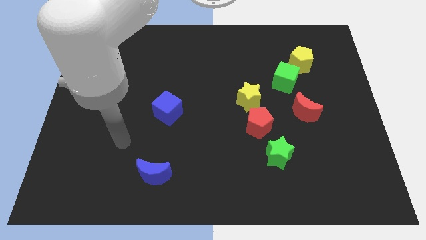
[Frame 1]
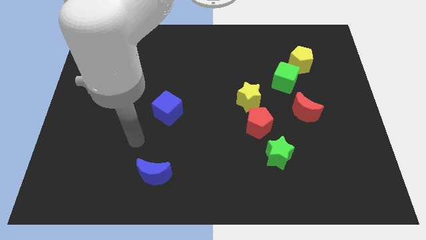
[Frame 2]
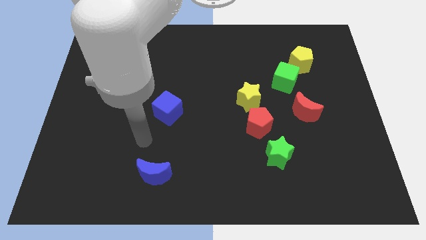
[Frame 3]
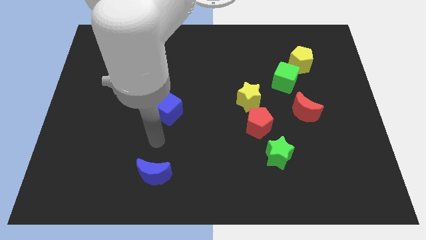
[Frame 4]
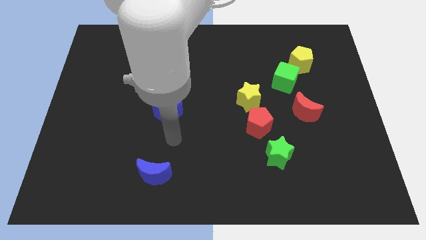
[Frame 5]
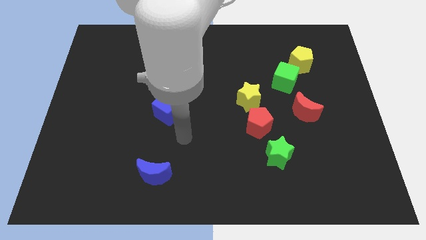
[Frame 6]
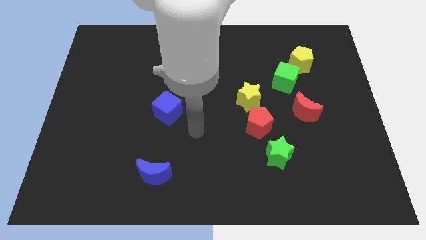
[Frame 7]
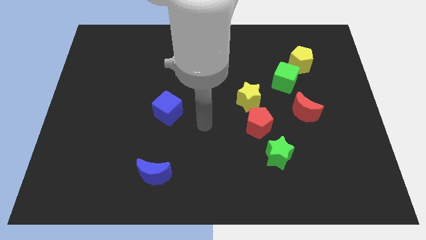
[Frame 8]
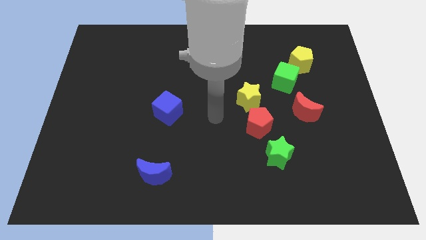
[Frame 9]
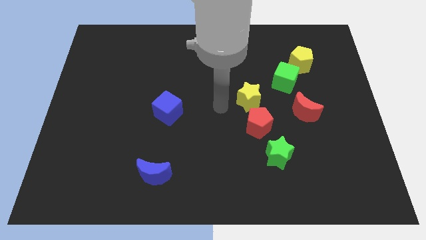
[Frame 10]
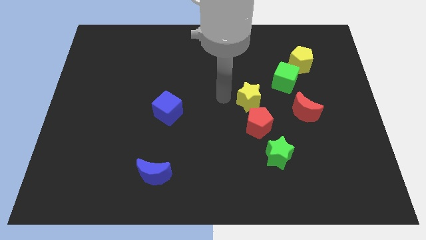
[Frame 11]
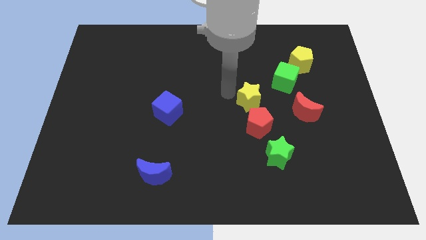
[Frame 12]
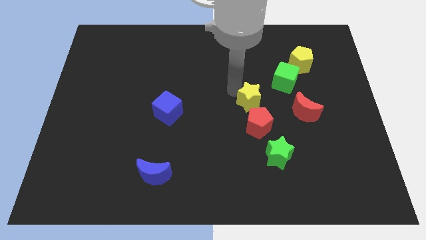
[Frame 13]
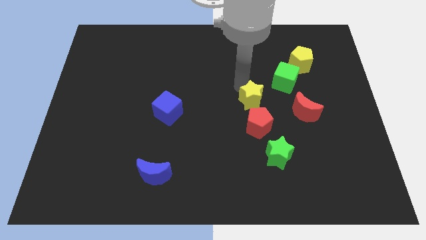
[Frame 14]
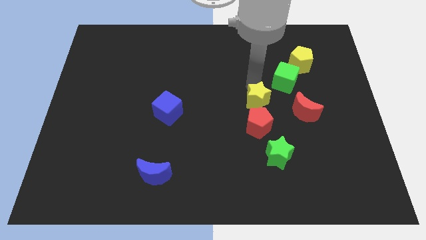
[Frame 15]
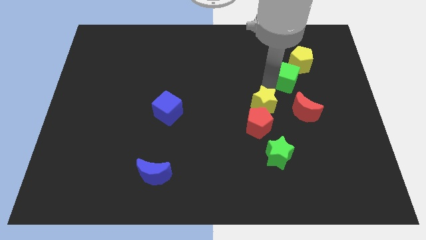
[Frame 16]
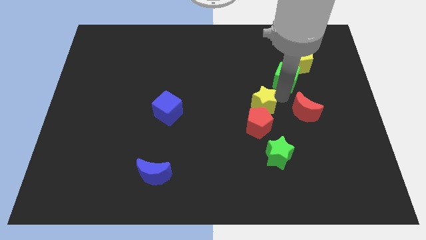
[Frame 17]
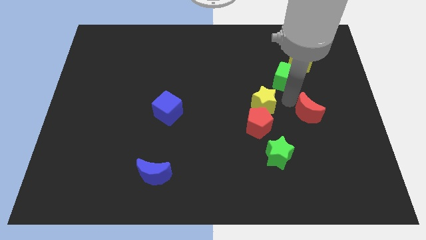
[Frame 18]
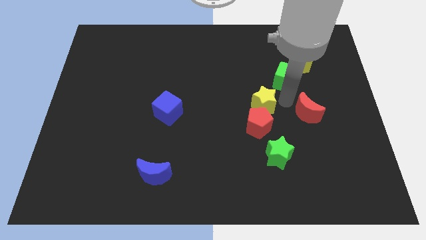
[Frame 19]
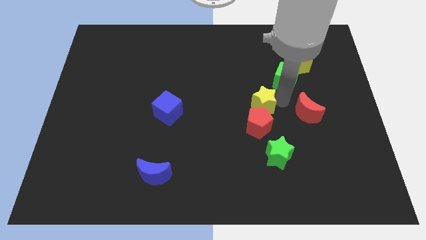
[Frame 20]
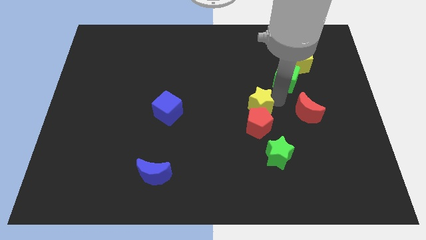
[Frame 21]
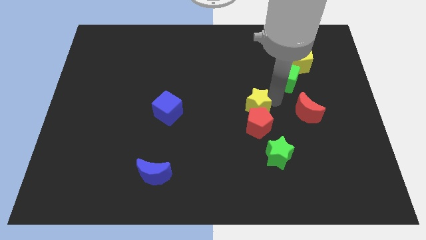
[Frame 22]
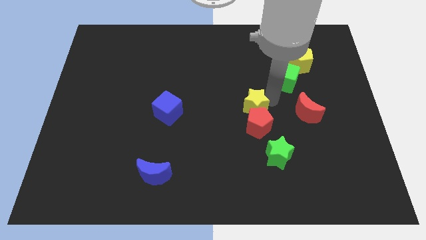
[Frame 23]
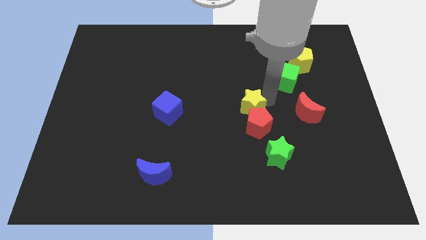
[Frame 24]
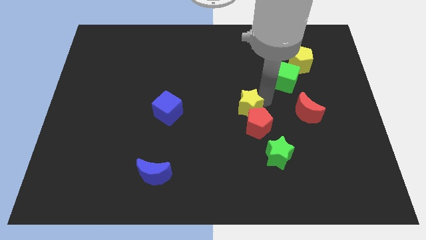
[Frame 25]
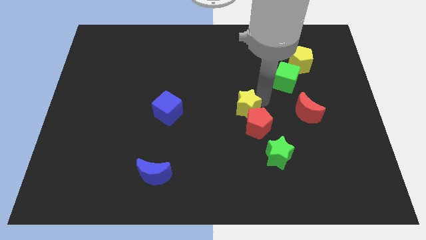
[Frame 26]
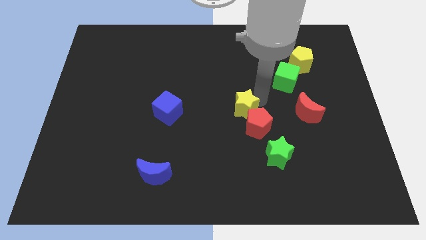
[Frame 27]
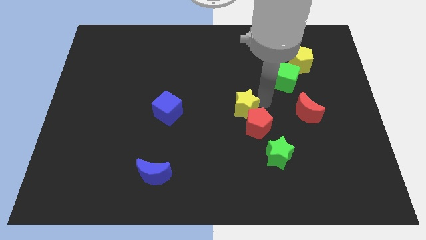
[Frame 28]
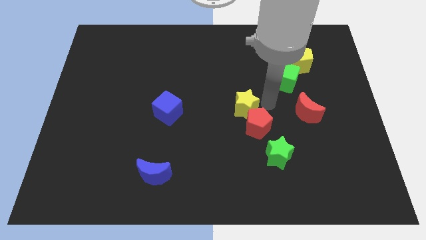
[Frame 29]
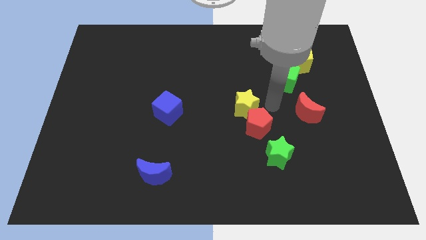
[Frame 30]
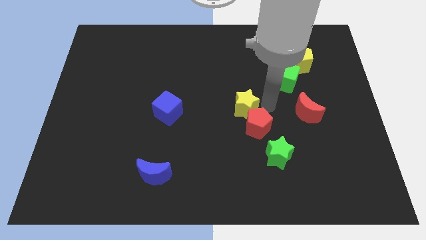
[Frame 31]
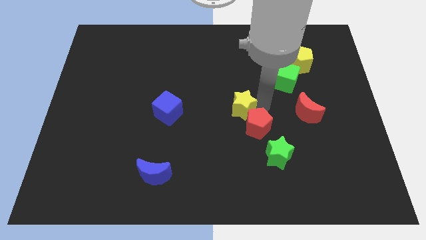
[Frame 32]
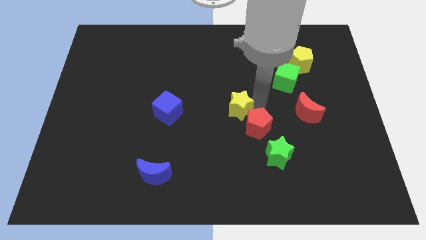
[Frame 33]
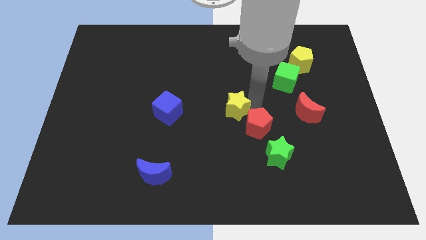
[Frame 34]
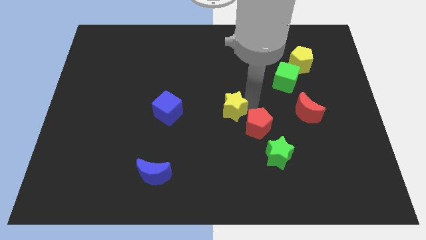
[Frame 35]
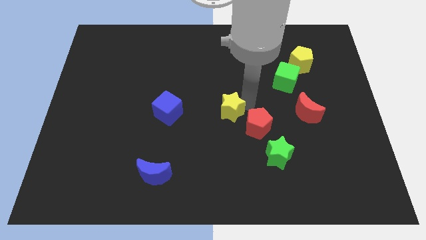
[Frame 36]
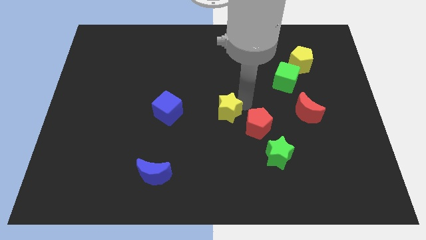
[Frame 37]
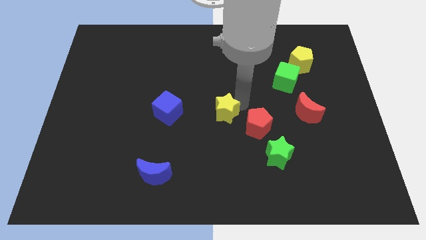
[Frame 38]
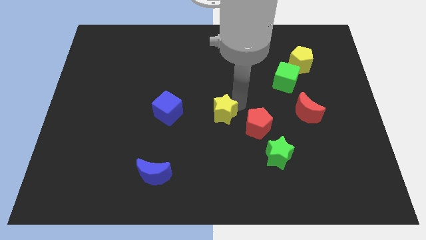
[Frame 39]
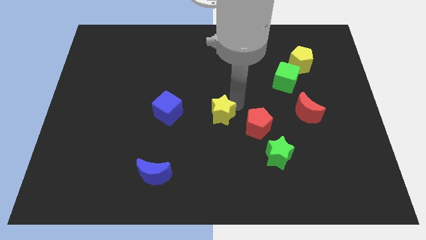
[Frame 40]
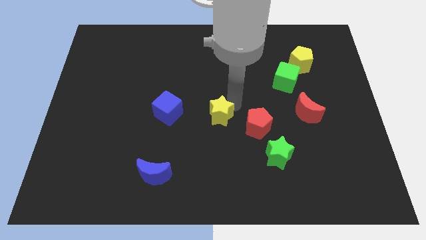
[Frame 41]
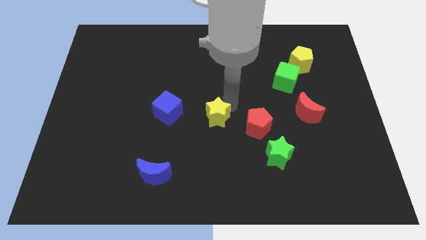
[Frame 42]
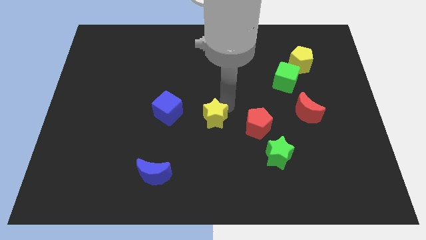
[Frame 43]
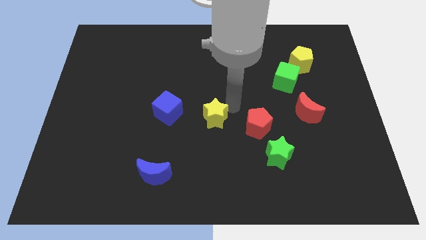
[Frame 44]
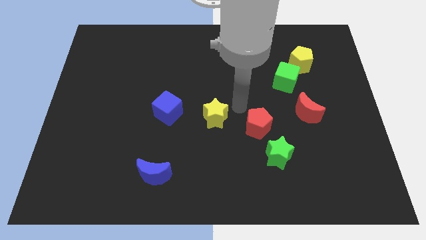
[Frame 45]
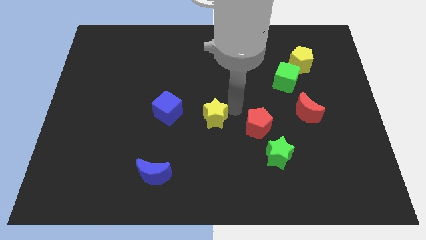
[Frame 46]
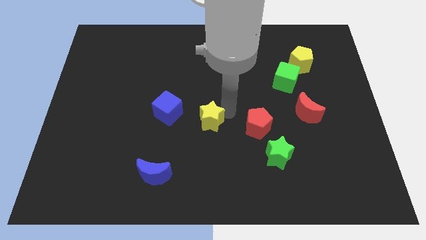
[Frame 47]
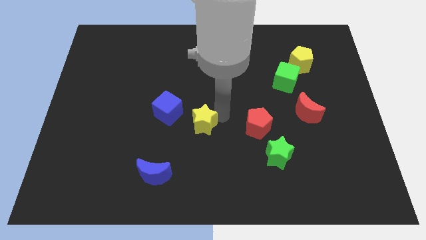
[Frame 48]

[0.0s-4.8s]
push the yellow star to the bottom right side of the blue cube

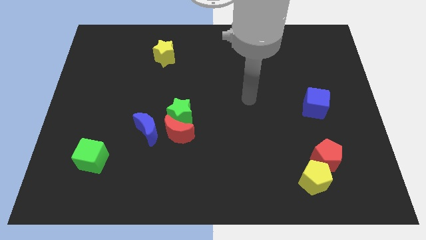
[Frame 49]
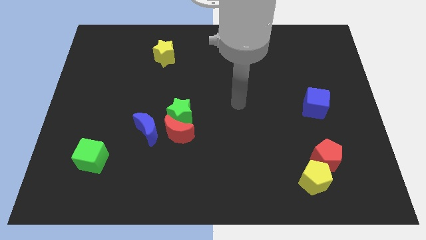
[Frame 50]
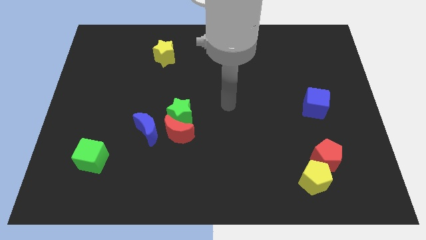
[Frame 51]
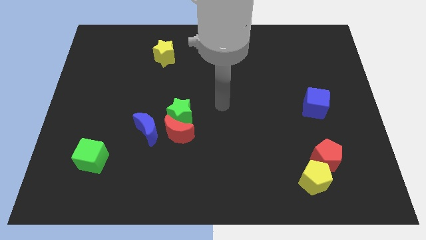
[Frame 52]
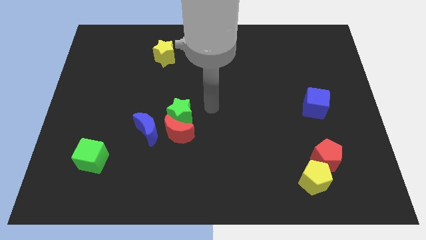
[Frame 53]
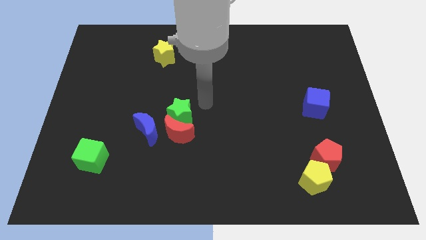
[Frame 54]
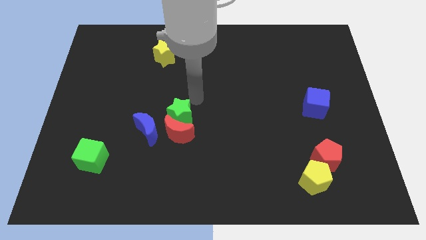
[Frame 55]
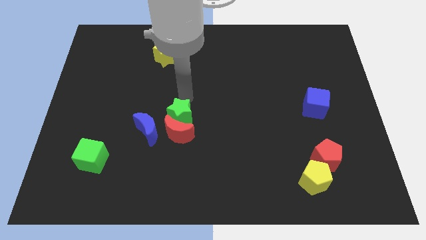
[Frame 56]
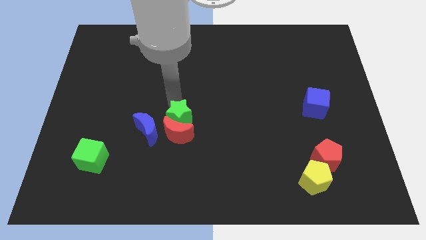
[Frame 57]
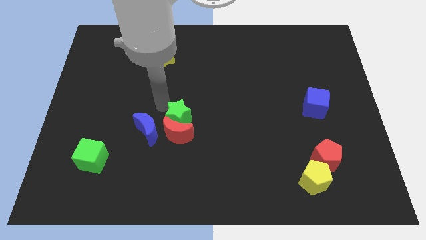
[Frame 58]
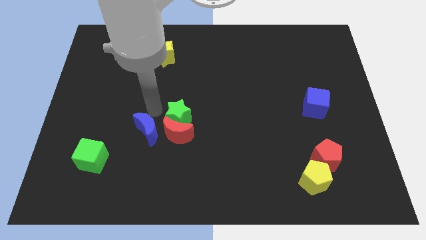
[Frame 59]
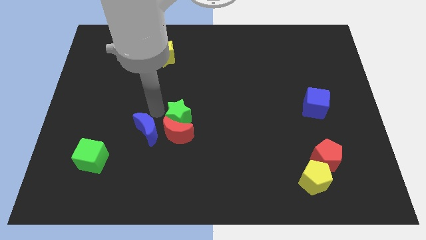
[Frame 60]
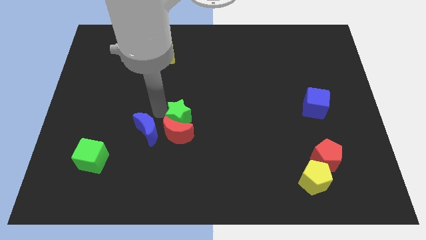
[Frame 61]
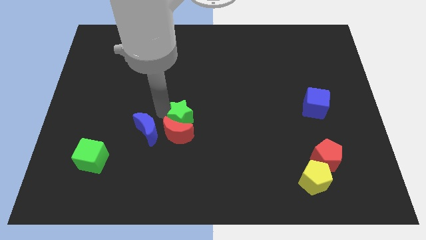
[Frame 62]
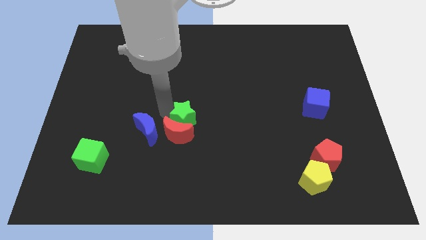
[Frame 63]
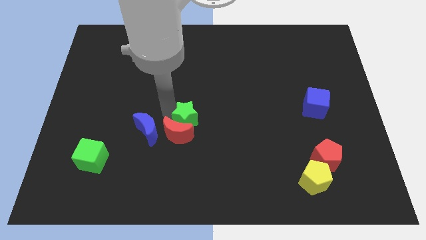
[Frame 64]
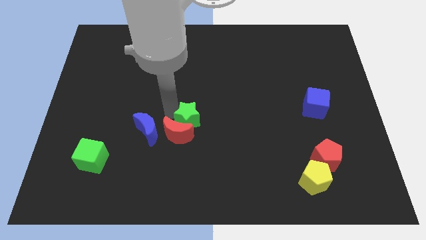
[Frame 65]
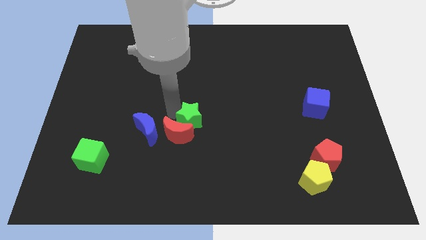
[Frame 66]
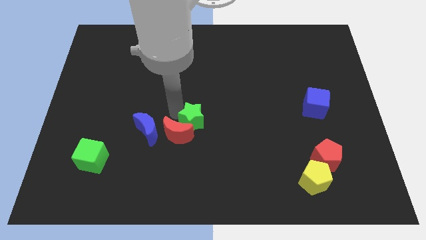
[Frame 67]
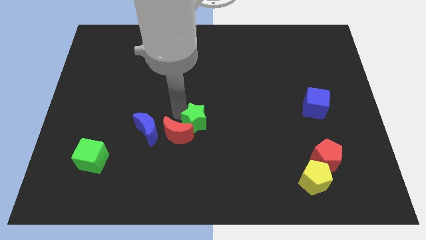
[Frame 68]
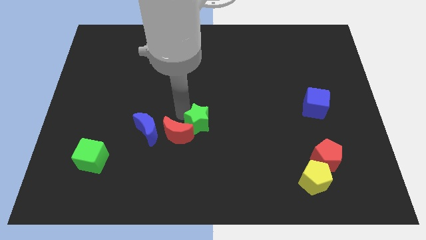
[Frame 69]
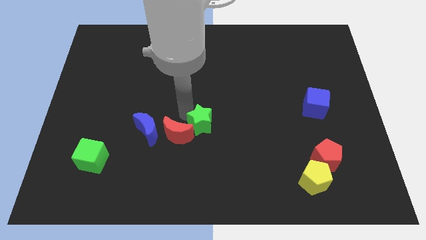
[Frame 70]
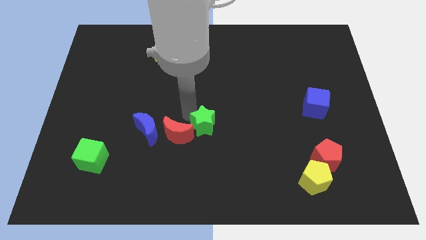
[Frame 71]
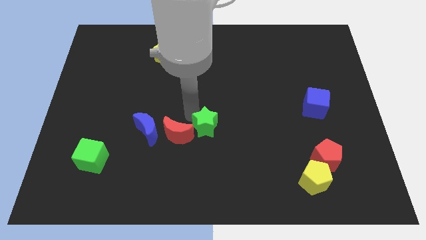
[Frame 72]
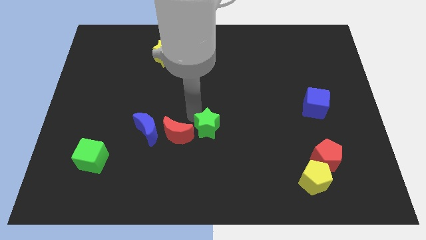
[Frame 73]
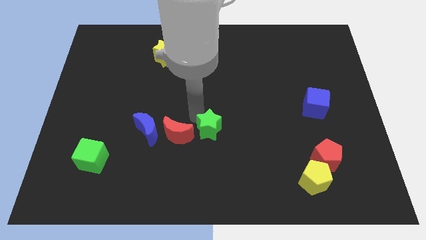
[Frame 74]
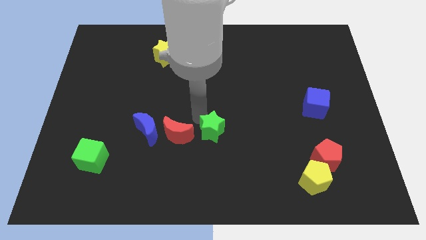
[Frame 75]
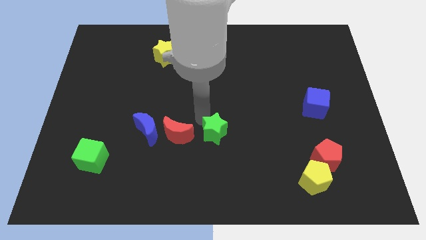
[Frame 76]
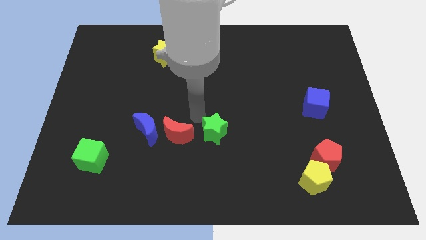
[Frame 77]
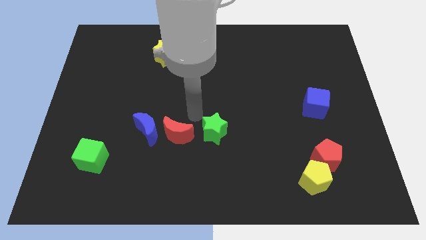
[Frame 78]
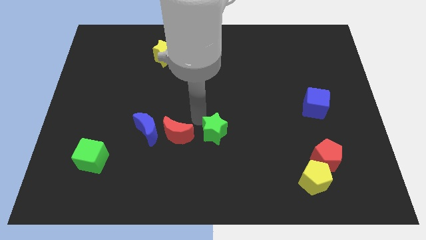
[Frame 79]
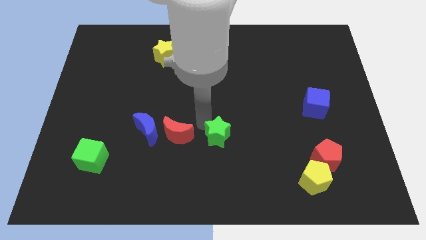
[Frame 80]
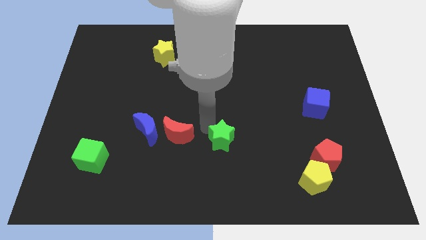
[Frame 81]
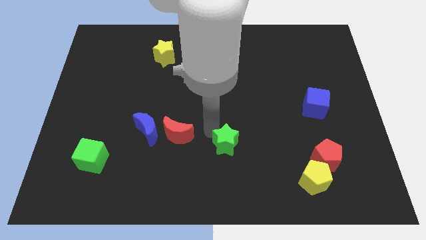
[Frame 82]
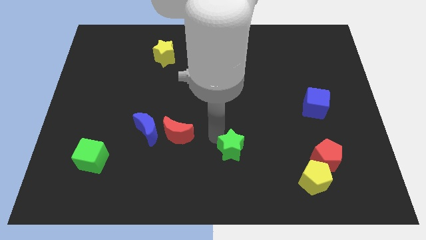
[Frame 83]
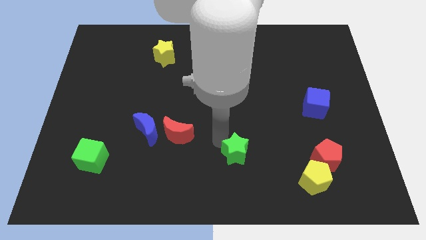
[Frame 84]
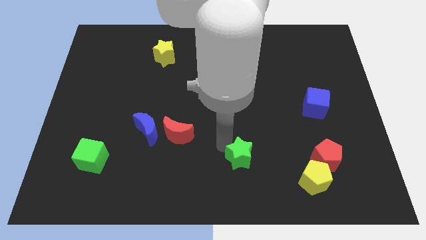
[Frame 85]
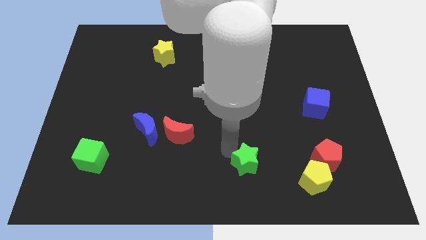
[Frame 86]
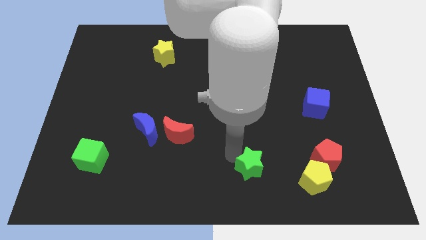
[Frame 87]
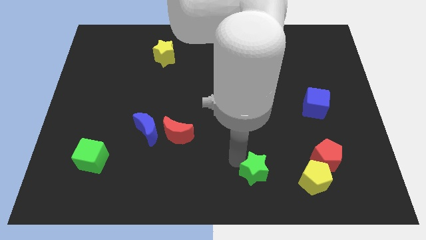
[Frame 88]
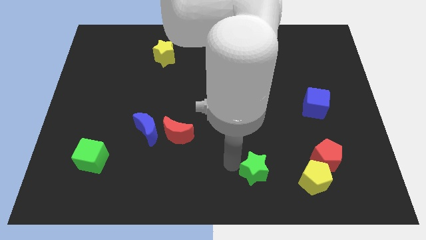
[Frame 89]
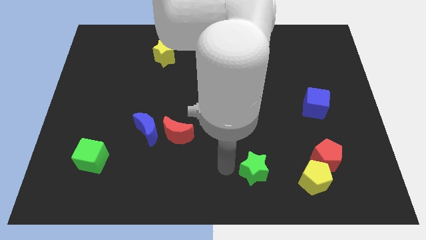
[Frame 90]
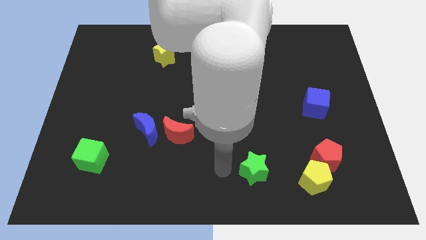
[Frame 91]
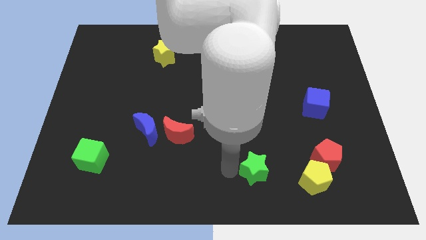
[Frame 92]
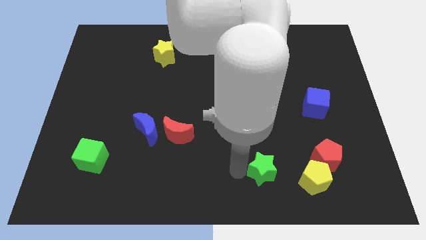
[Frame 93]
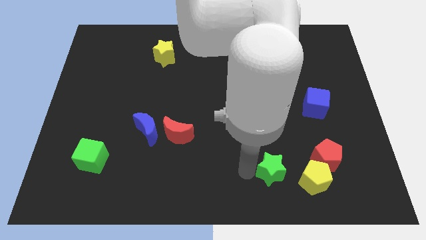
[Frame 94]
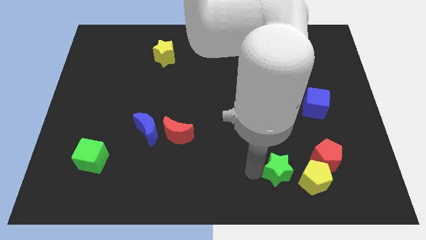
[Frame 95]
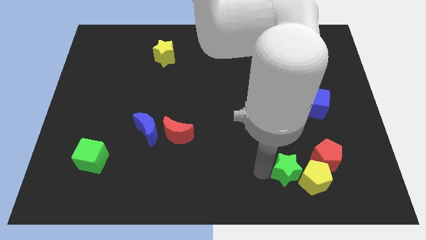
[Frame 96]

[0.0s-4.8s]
slide the green star diagonally down and to the left of the red pentagon
